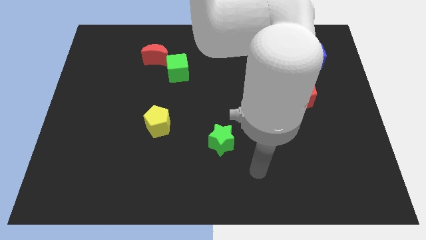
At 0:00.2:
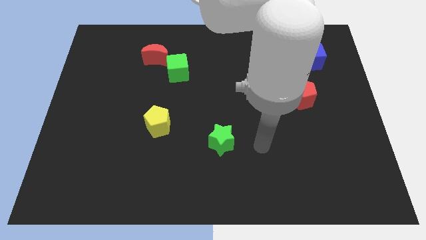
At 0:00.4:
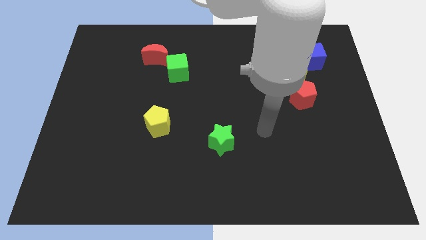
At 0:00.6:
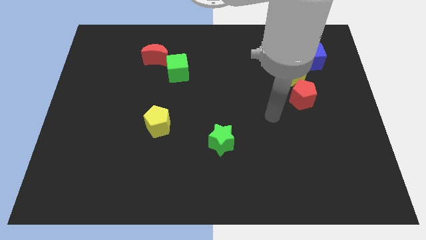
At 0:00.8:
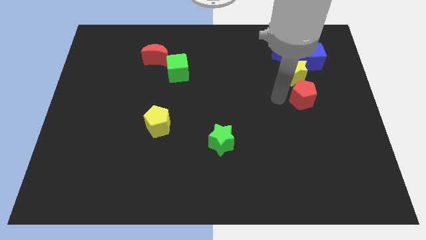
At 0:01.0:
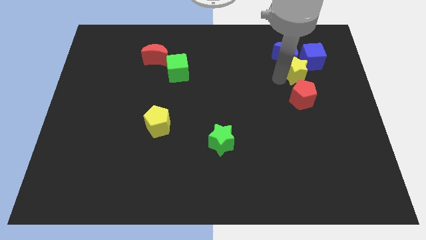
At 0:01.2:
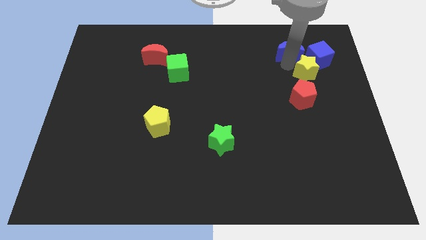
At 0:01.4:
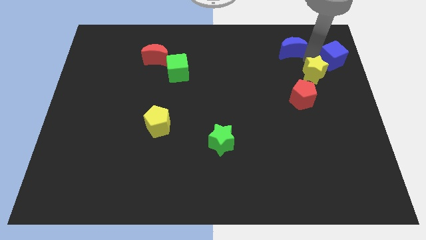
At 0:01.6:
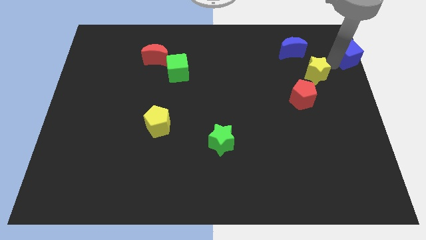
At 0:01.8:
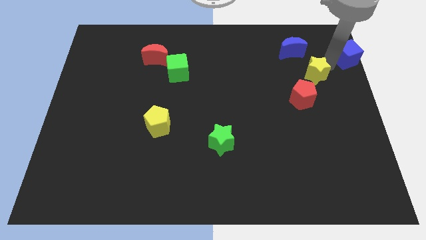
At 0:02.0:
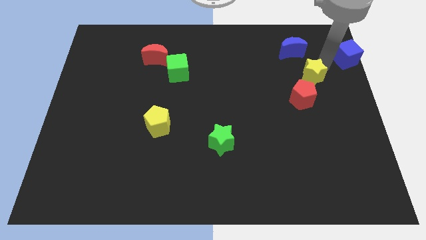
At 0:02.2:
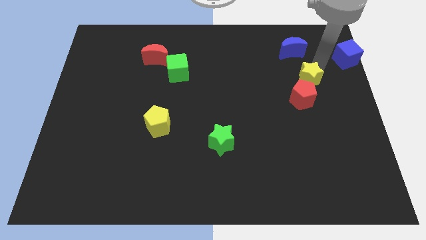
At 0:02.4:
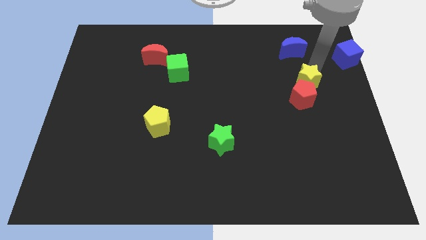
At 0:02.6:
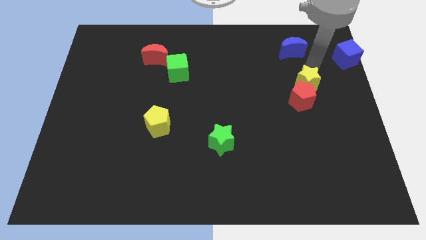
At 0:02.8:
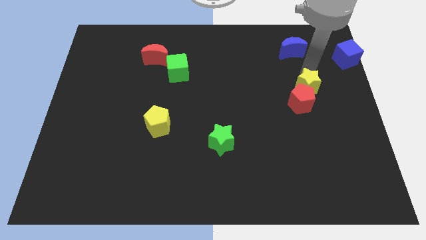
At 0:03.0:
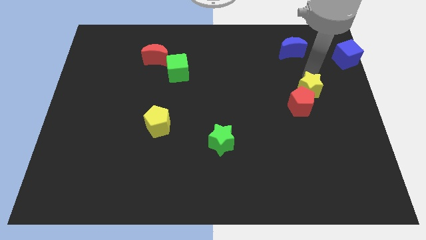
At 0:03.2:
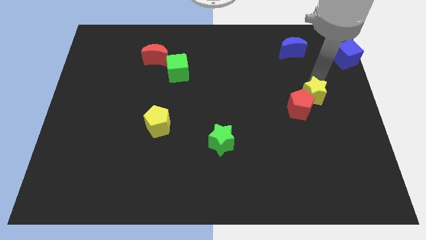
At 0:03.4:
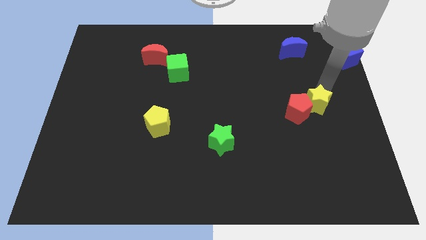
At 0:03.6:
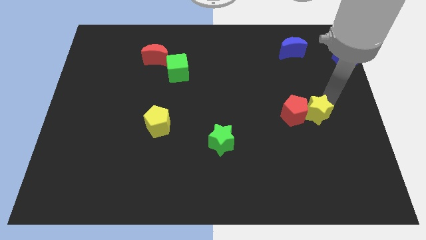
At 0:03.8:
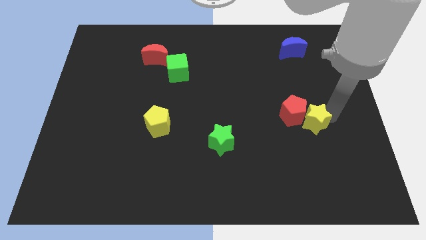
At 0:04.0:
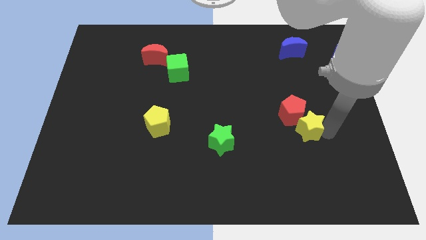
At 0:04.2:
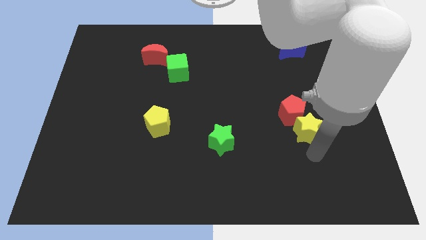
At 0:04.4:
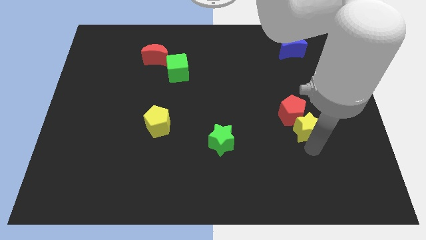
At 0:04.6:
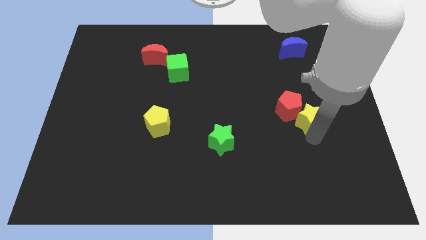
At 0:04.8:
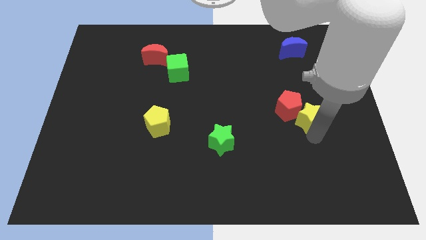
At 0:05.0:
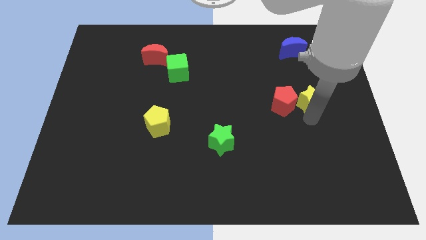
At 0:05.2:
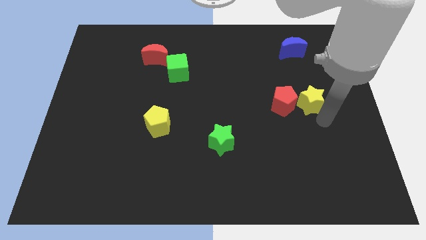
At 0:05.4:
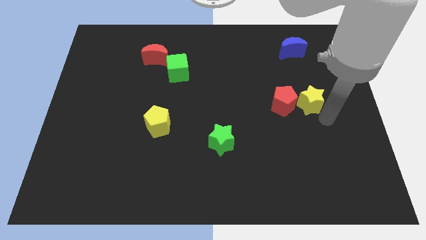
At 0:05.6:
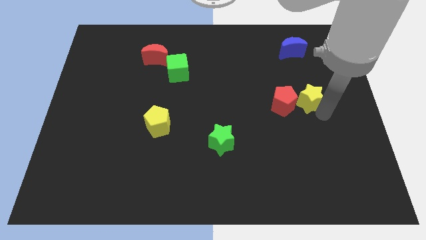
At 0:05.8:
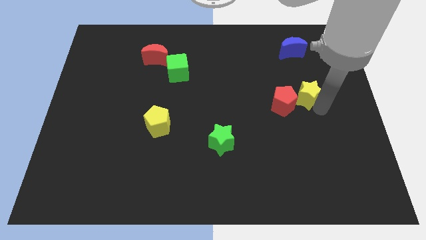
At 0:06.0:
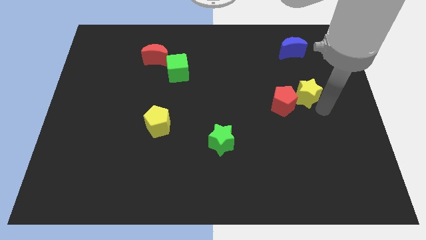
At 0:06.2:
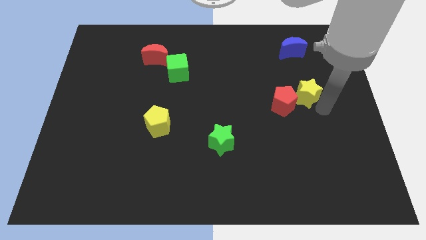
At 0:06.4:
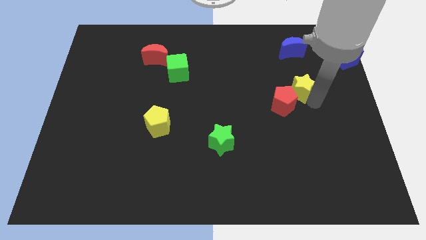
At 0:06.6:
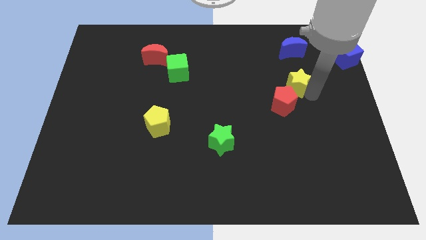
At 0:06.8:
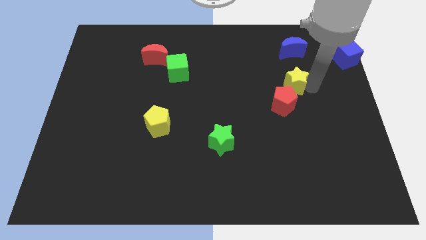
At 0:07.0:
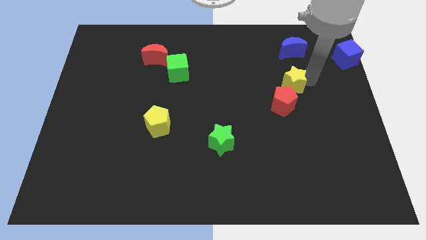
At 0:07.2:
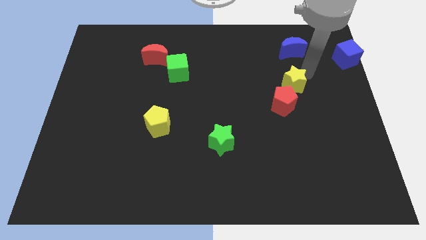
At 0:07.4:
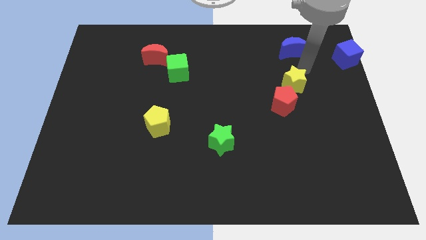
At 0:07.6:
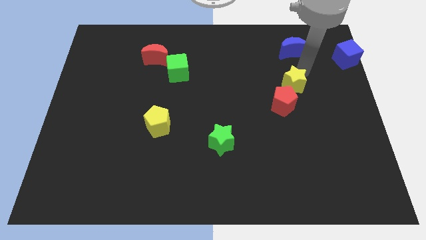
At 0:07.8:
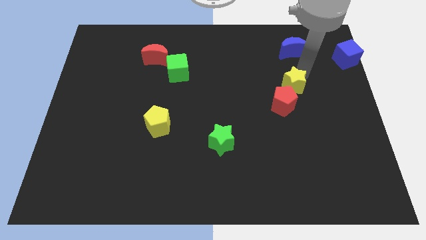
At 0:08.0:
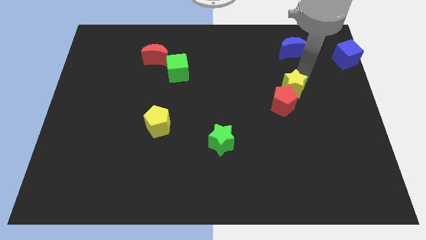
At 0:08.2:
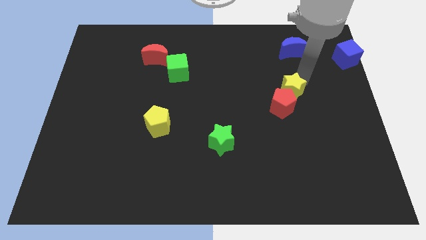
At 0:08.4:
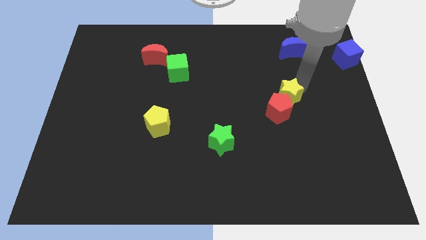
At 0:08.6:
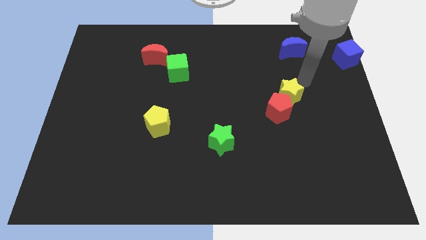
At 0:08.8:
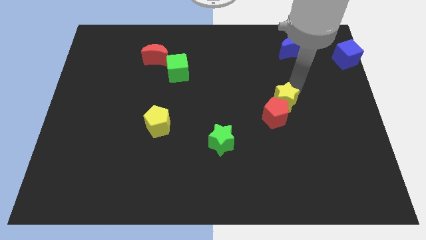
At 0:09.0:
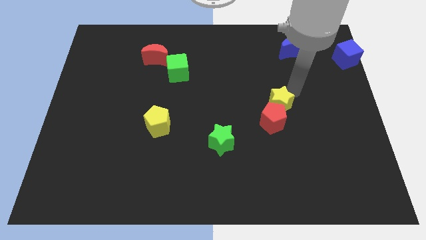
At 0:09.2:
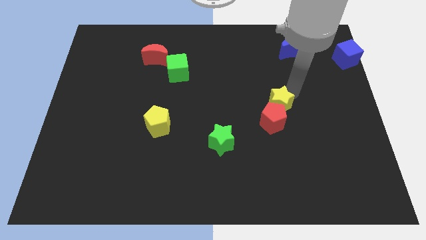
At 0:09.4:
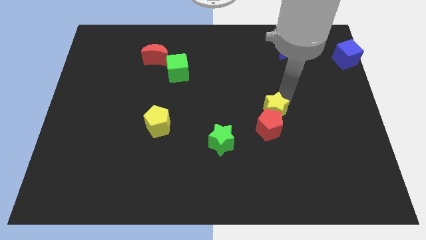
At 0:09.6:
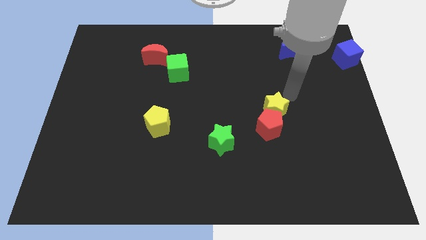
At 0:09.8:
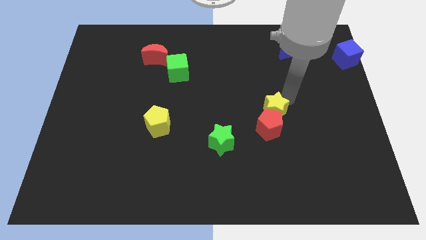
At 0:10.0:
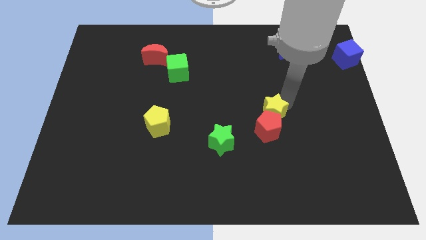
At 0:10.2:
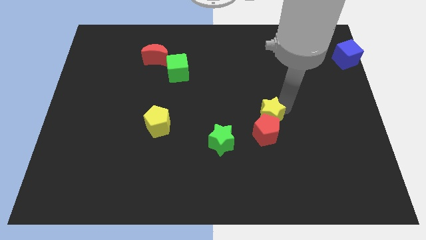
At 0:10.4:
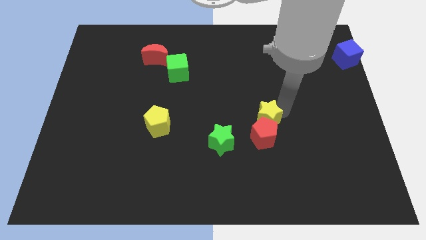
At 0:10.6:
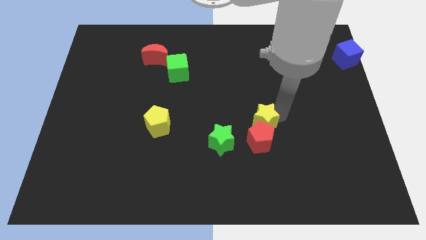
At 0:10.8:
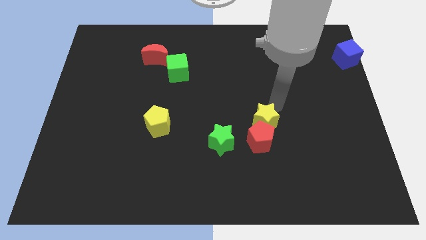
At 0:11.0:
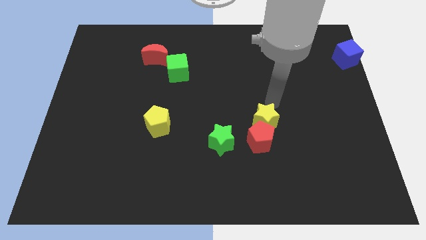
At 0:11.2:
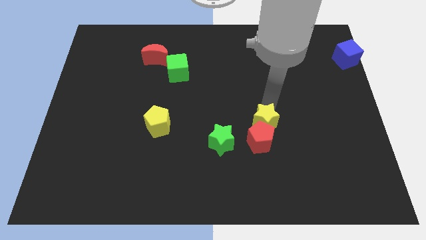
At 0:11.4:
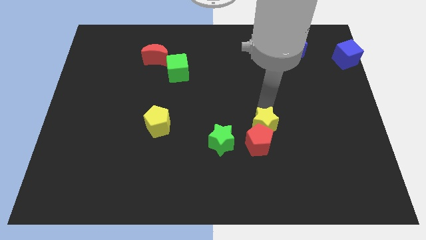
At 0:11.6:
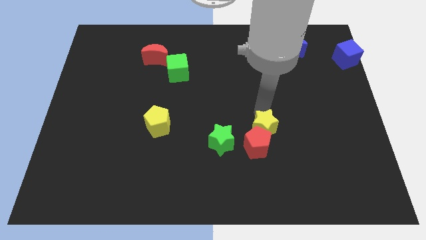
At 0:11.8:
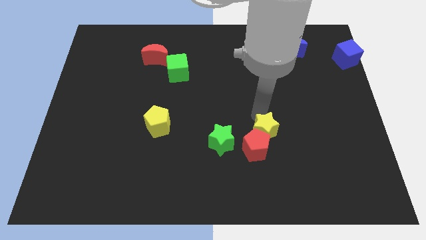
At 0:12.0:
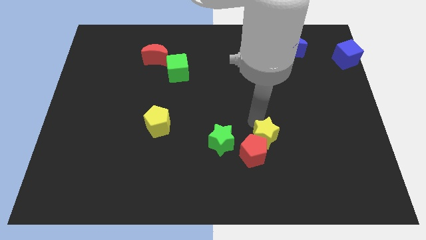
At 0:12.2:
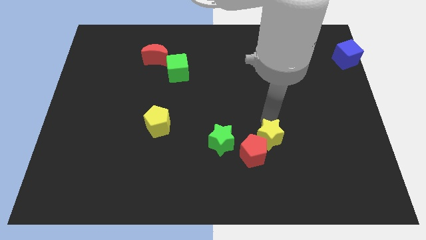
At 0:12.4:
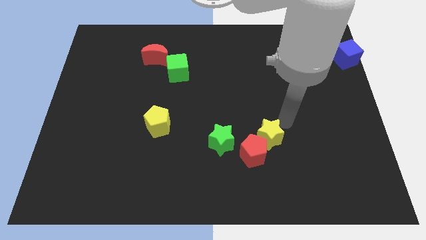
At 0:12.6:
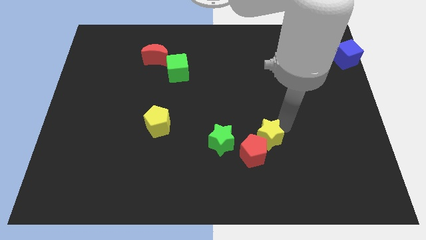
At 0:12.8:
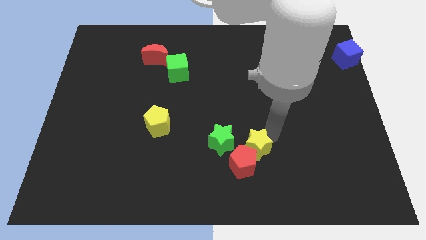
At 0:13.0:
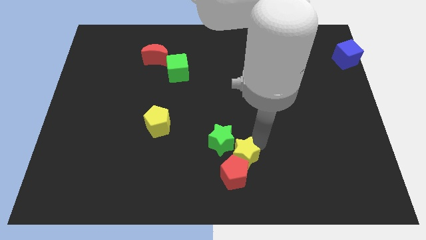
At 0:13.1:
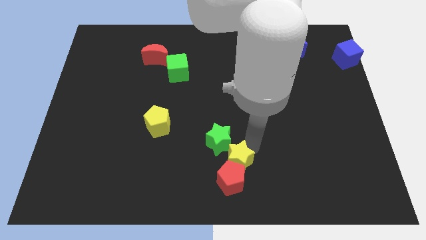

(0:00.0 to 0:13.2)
push the yellow star to the bottom side

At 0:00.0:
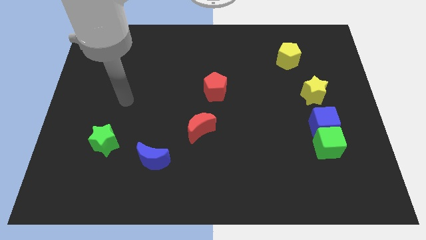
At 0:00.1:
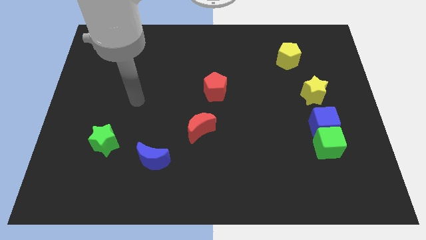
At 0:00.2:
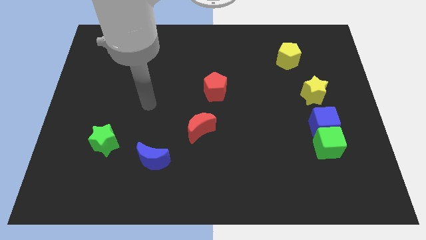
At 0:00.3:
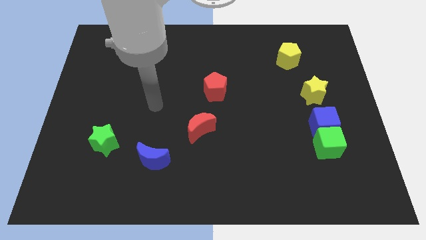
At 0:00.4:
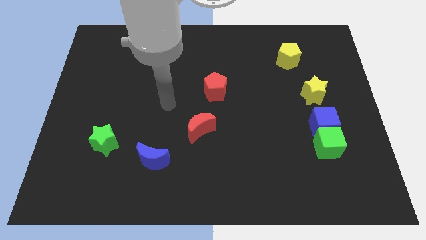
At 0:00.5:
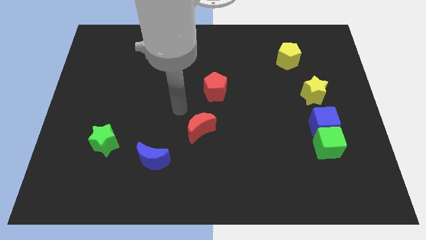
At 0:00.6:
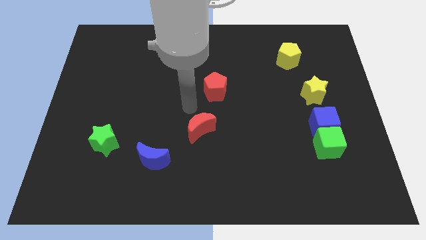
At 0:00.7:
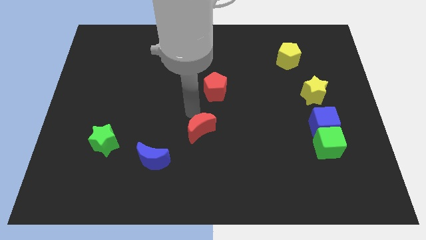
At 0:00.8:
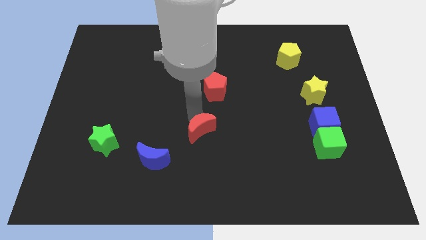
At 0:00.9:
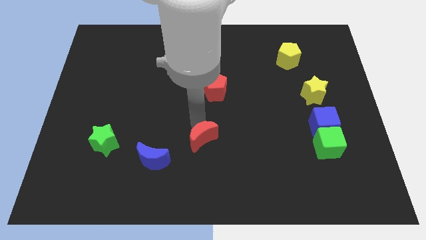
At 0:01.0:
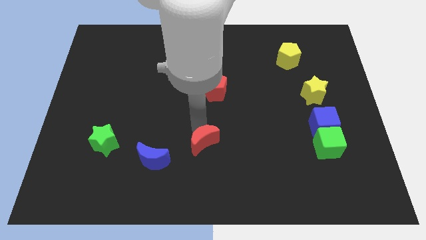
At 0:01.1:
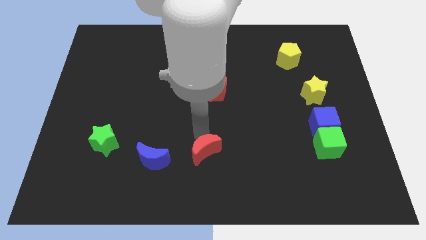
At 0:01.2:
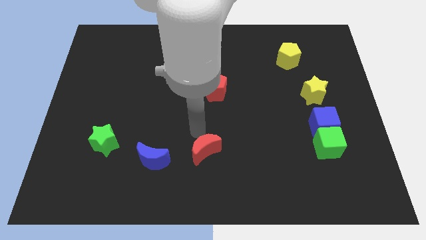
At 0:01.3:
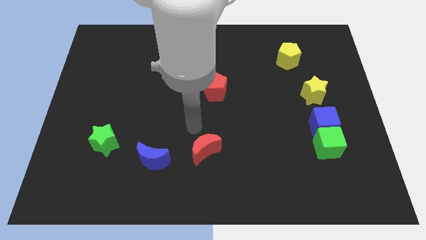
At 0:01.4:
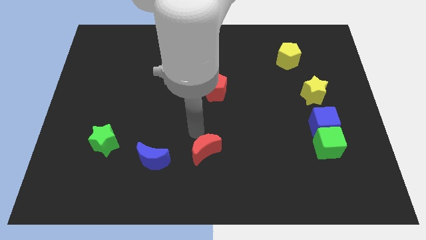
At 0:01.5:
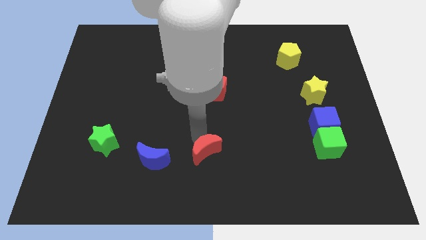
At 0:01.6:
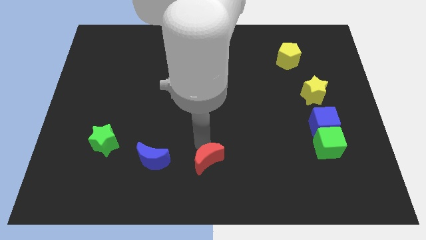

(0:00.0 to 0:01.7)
move the red moon to the bottom side
